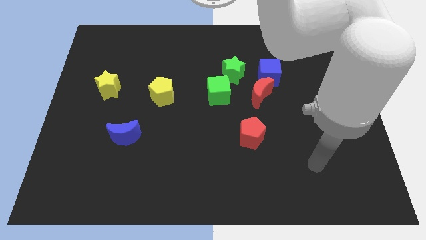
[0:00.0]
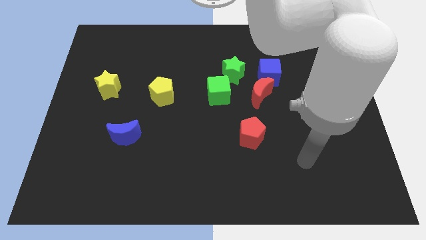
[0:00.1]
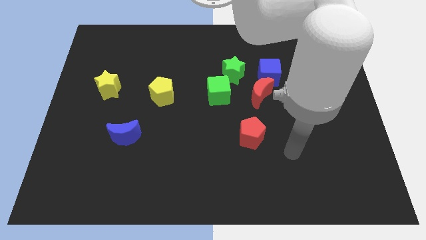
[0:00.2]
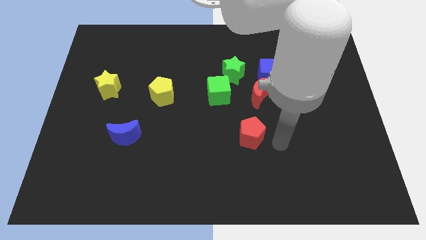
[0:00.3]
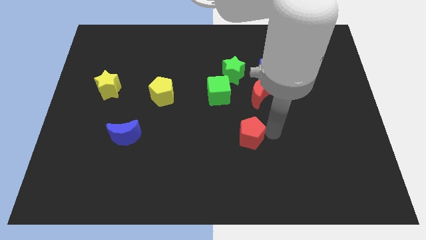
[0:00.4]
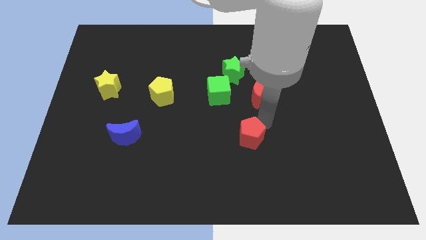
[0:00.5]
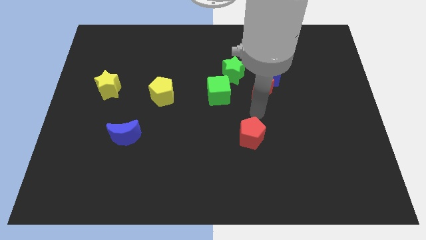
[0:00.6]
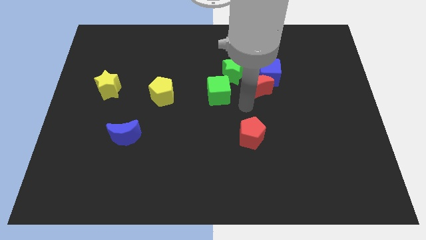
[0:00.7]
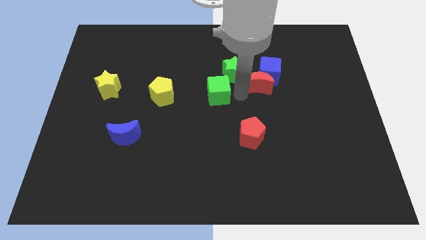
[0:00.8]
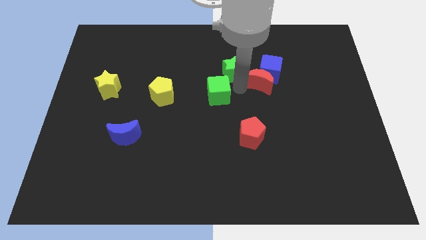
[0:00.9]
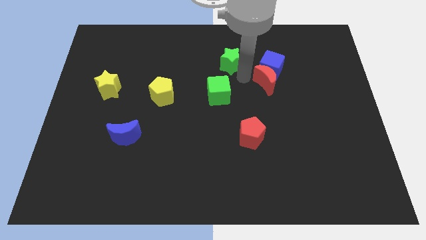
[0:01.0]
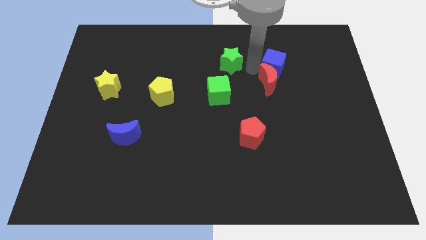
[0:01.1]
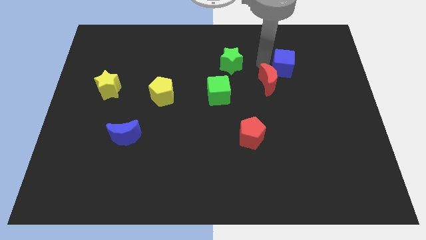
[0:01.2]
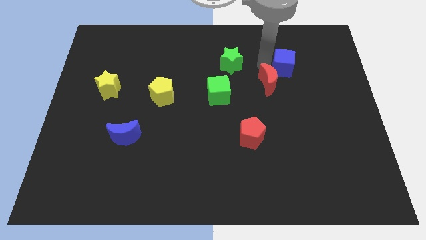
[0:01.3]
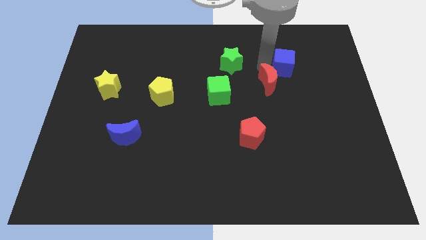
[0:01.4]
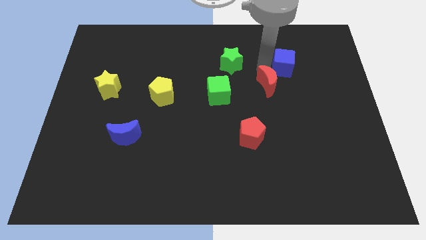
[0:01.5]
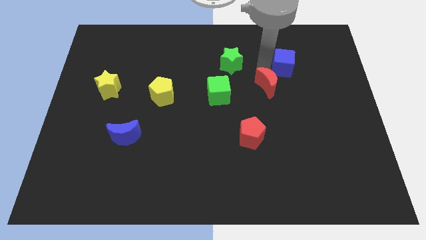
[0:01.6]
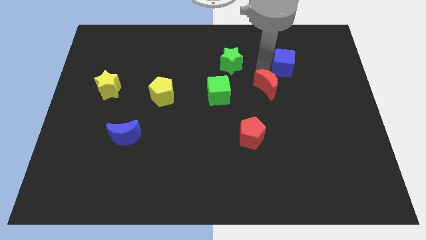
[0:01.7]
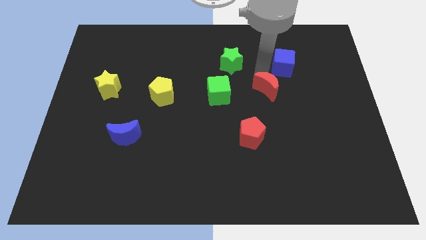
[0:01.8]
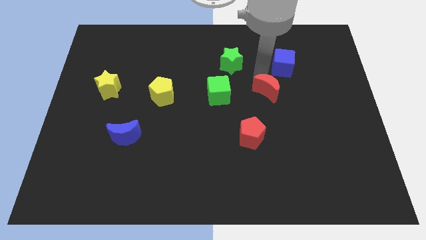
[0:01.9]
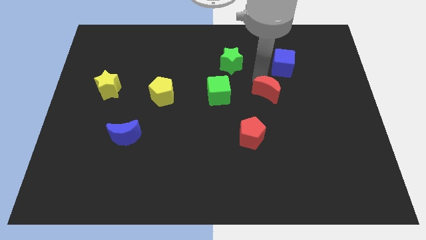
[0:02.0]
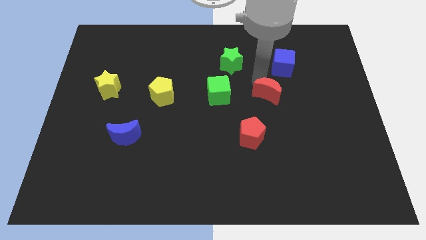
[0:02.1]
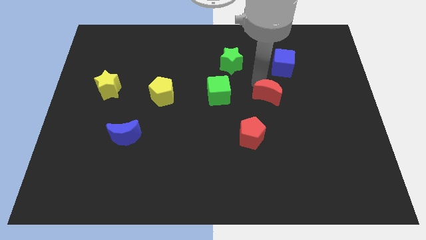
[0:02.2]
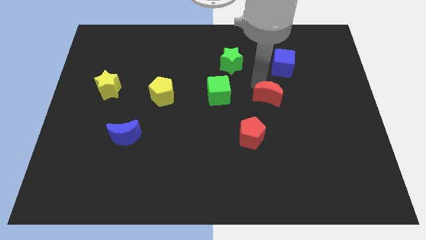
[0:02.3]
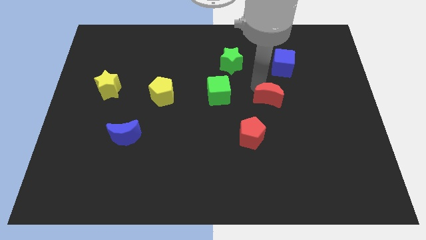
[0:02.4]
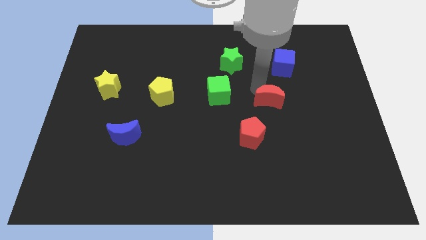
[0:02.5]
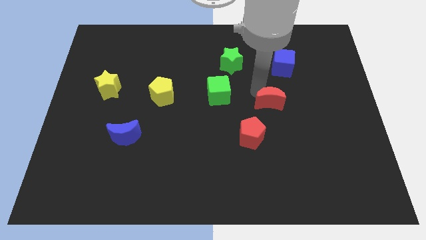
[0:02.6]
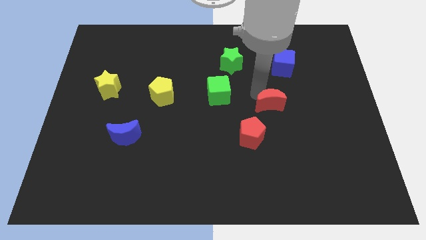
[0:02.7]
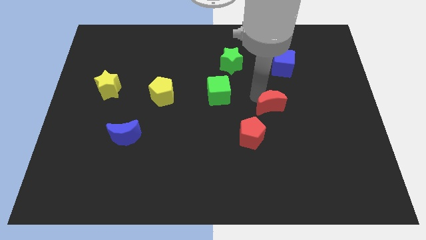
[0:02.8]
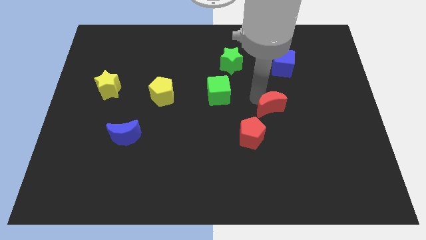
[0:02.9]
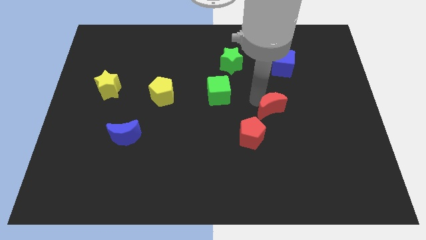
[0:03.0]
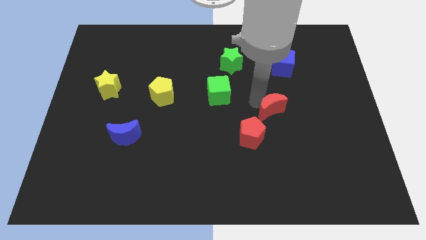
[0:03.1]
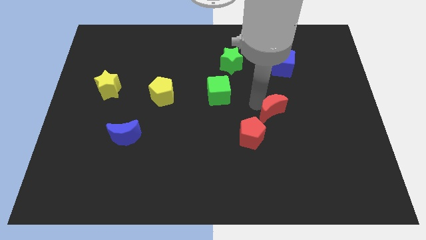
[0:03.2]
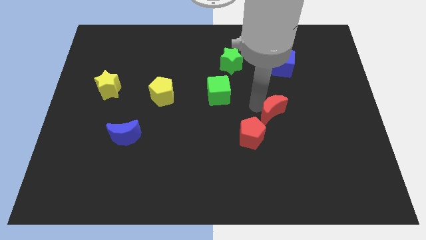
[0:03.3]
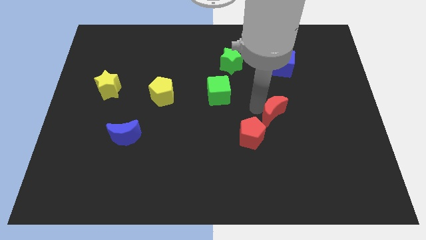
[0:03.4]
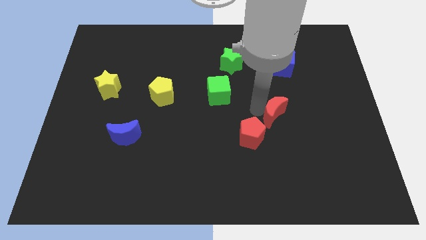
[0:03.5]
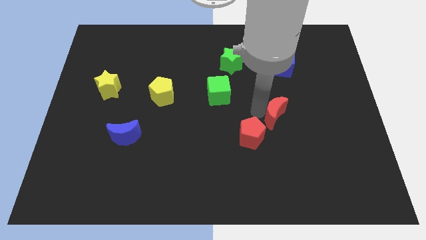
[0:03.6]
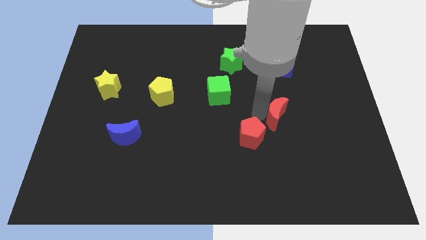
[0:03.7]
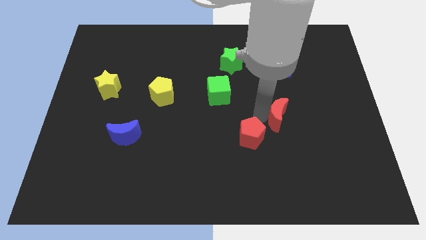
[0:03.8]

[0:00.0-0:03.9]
move the red moon down and to the right diagonally a little bit

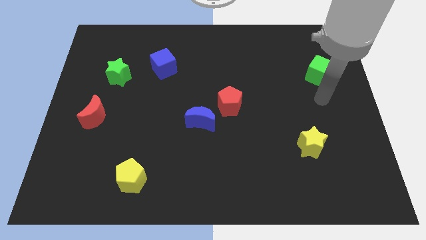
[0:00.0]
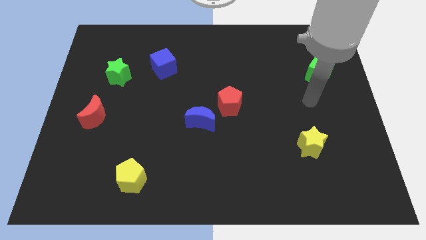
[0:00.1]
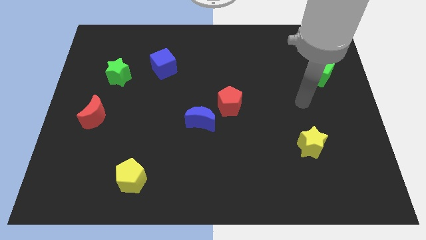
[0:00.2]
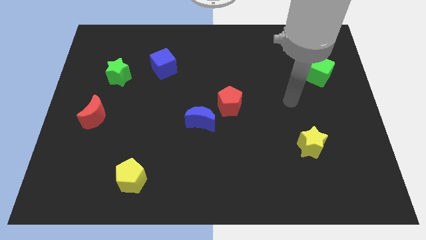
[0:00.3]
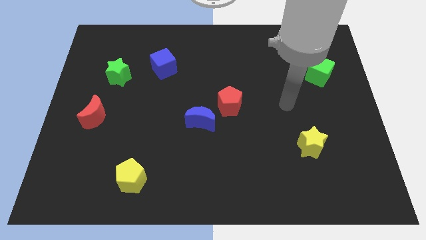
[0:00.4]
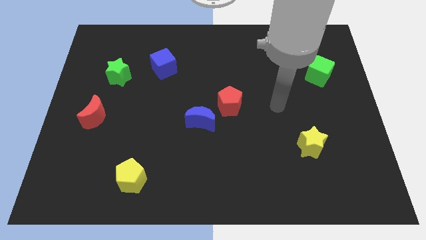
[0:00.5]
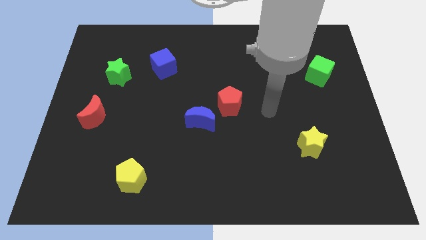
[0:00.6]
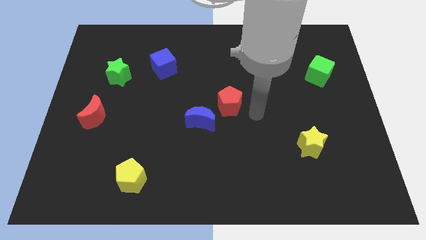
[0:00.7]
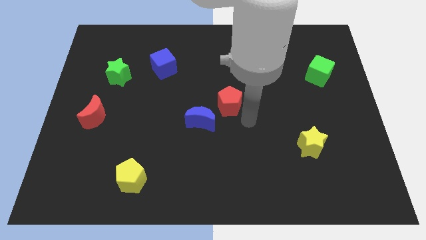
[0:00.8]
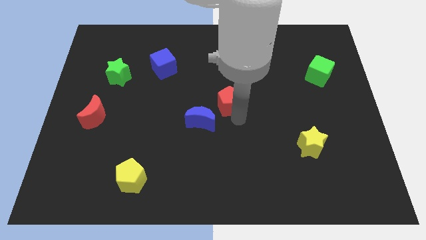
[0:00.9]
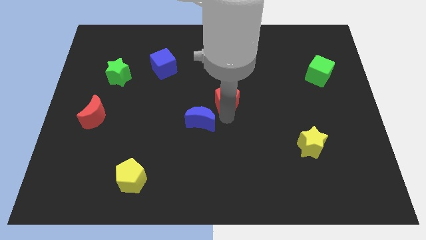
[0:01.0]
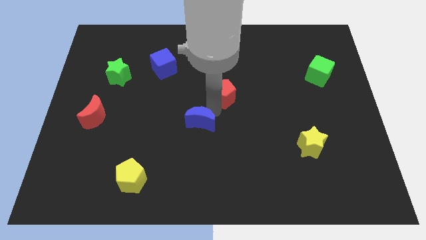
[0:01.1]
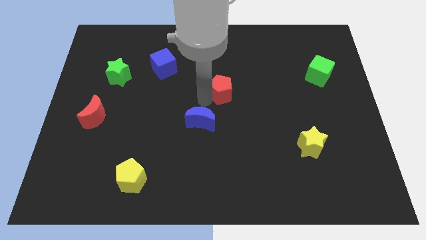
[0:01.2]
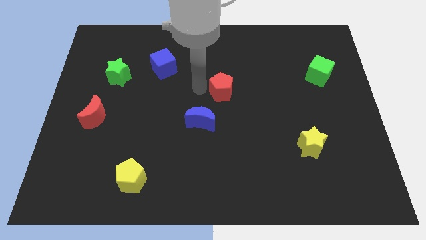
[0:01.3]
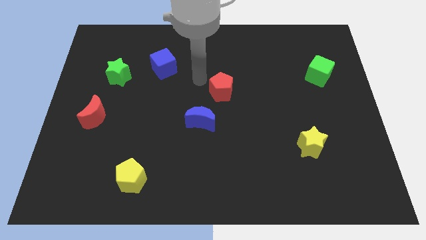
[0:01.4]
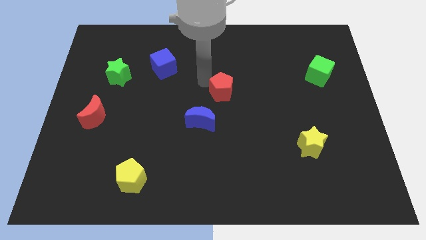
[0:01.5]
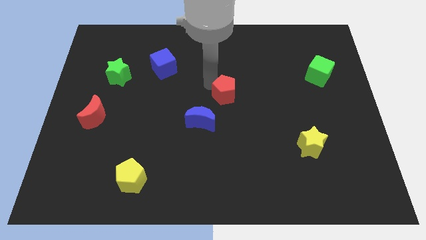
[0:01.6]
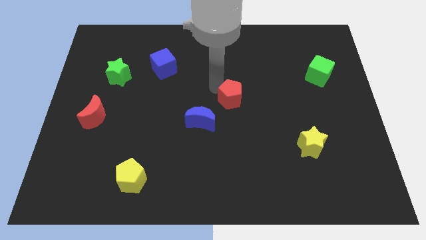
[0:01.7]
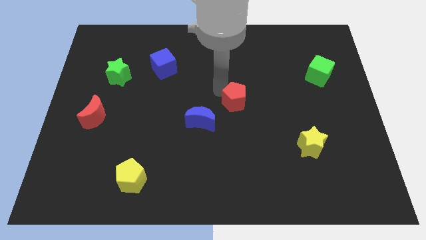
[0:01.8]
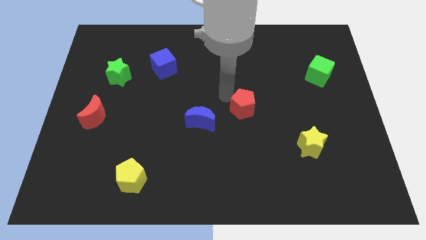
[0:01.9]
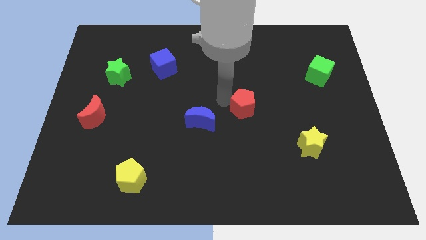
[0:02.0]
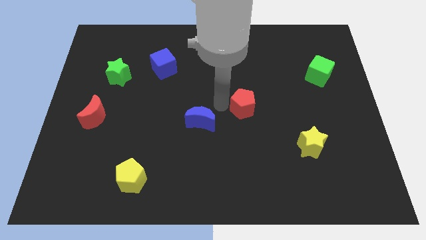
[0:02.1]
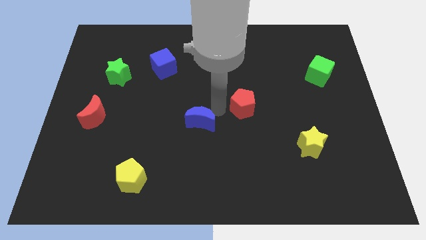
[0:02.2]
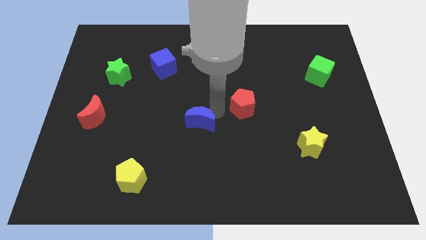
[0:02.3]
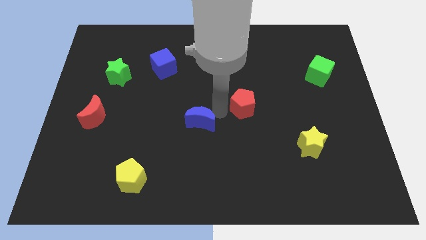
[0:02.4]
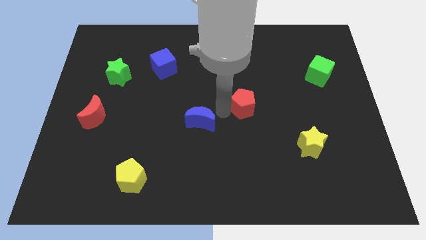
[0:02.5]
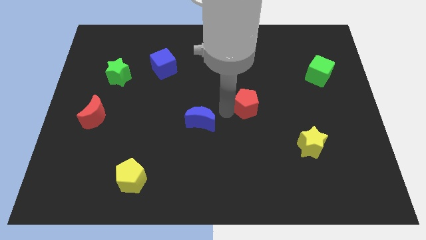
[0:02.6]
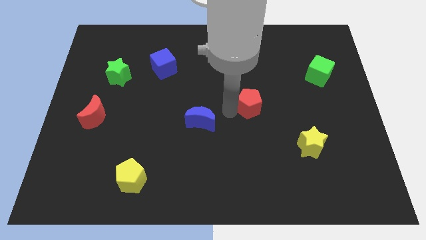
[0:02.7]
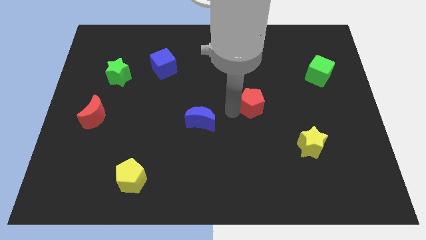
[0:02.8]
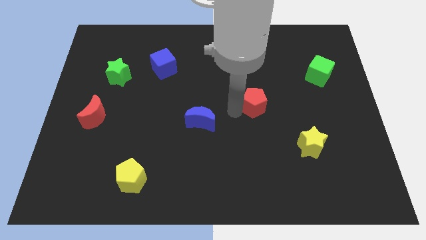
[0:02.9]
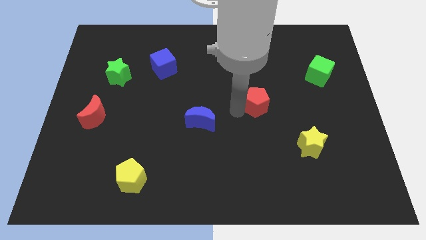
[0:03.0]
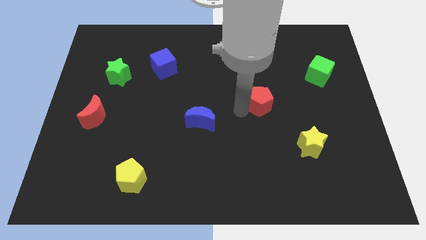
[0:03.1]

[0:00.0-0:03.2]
push the red pentagon slightly to the right

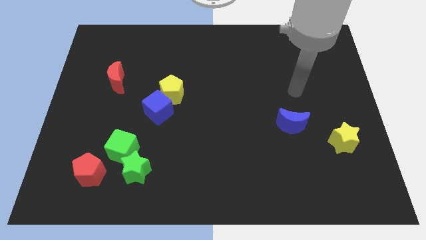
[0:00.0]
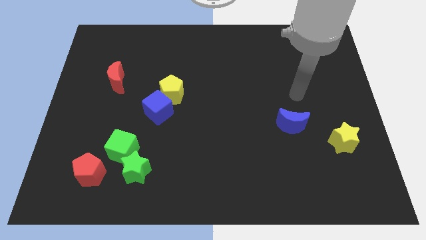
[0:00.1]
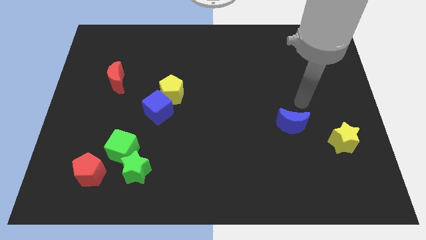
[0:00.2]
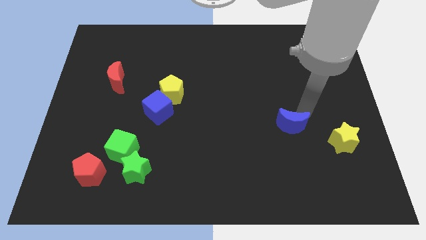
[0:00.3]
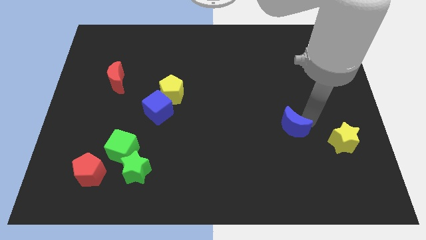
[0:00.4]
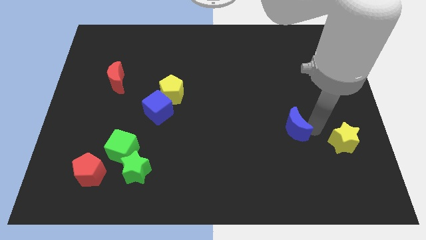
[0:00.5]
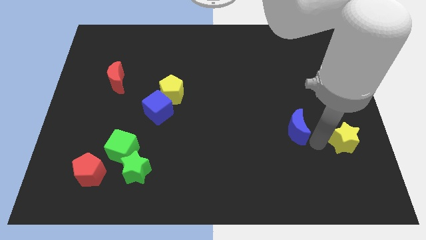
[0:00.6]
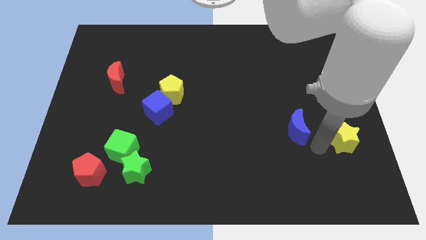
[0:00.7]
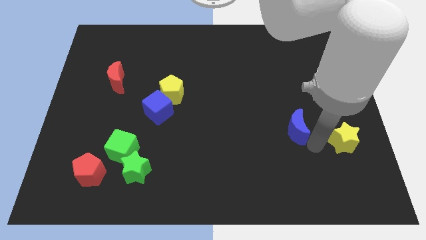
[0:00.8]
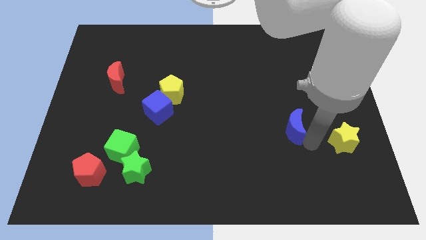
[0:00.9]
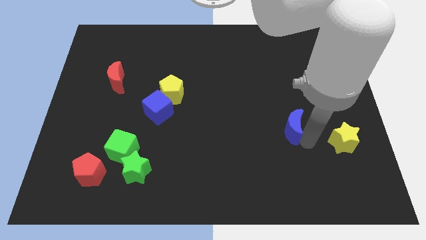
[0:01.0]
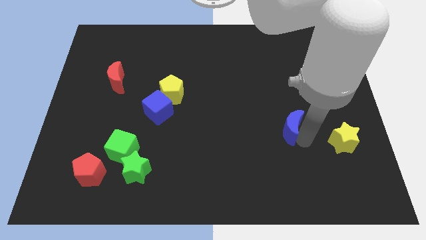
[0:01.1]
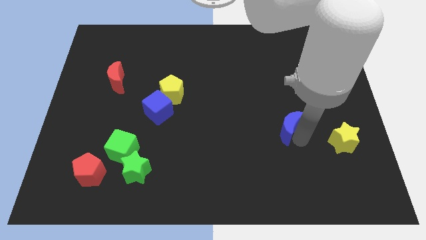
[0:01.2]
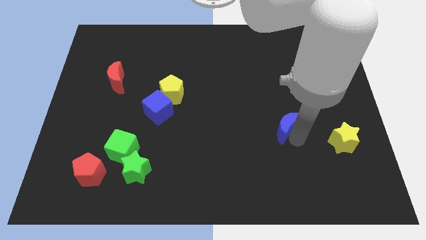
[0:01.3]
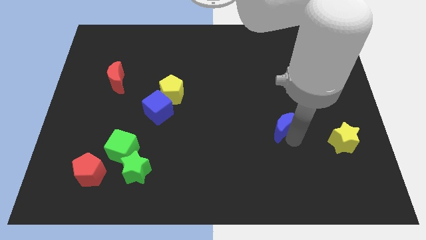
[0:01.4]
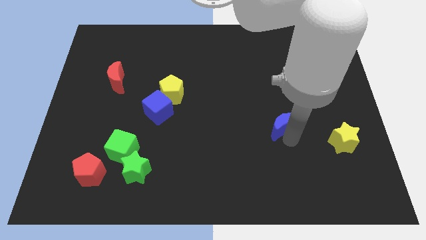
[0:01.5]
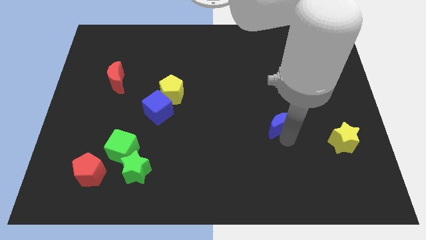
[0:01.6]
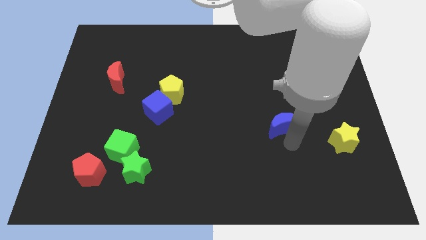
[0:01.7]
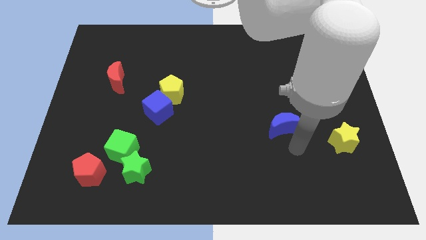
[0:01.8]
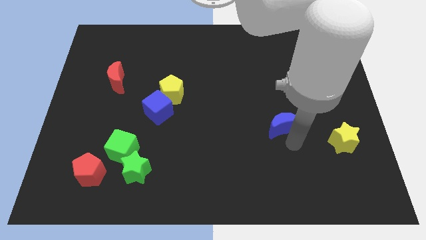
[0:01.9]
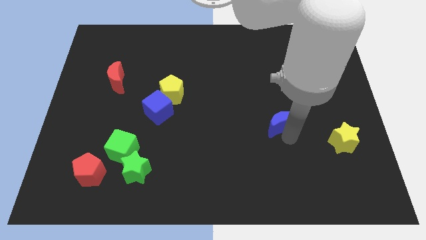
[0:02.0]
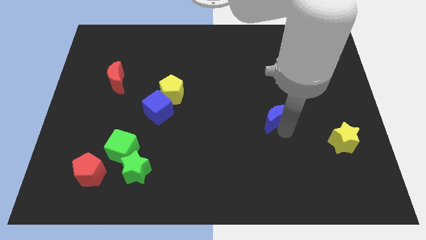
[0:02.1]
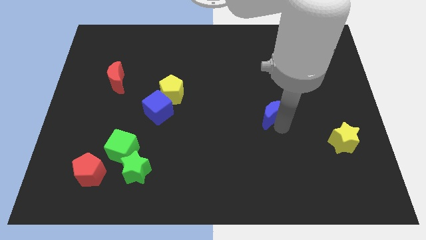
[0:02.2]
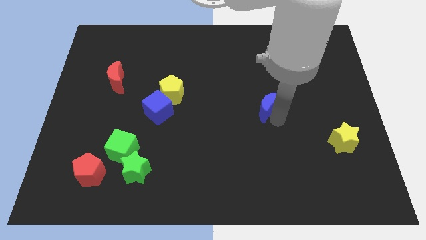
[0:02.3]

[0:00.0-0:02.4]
move the blue moon diagonally up and to the left a little bit
